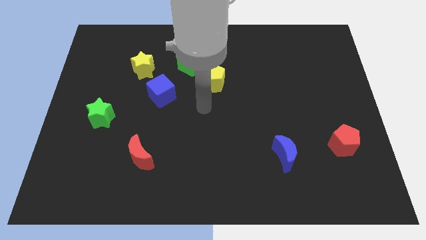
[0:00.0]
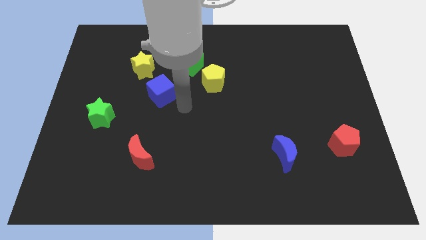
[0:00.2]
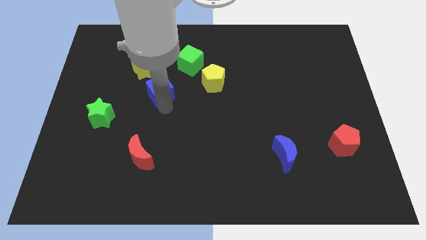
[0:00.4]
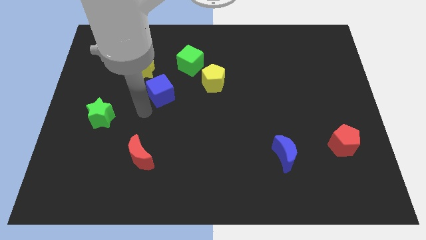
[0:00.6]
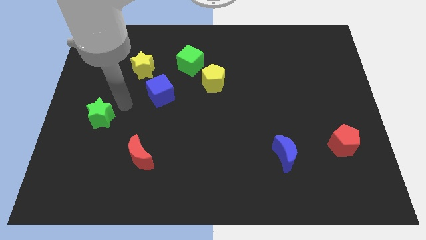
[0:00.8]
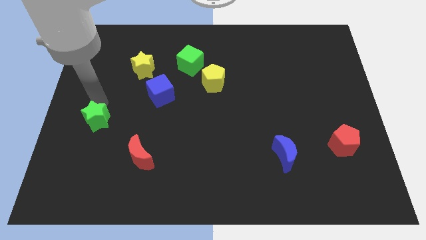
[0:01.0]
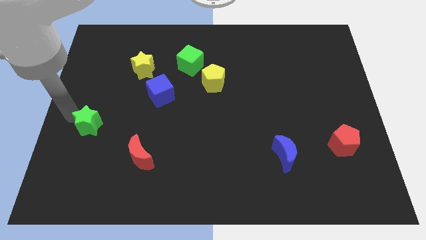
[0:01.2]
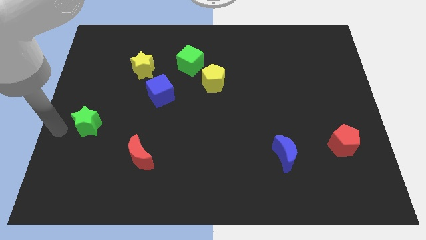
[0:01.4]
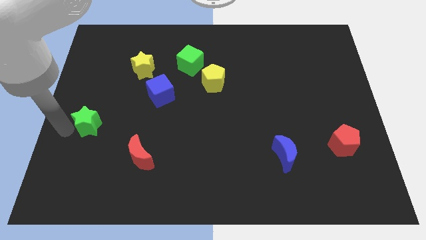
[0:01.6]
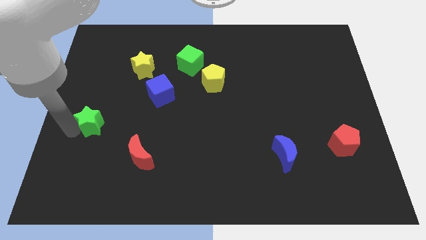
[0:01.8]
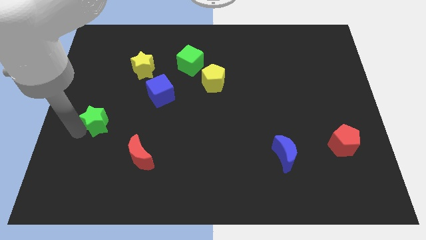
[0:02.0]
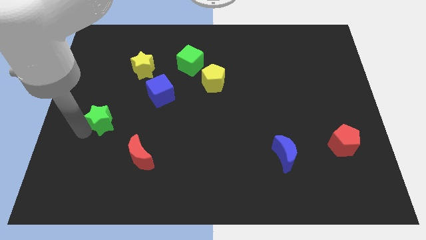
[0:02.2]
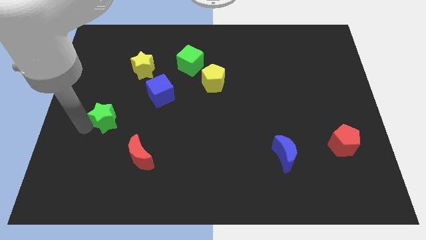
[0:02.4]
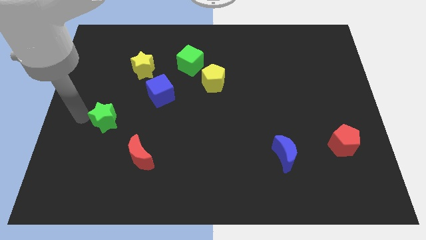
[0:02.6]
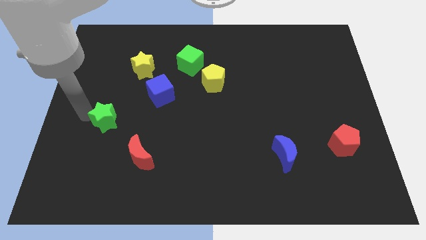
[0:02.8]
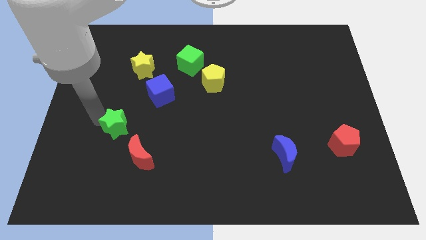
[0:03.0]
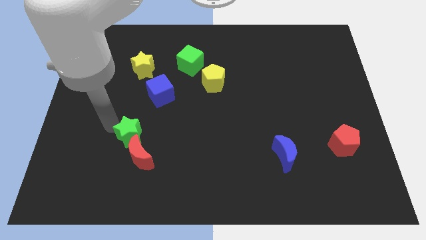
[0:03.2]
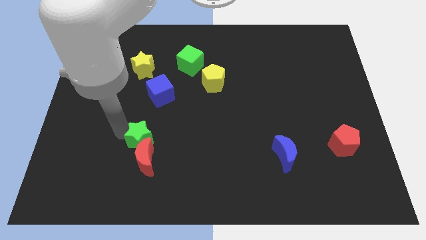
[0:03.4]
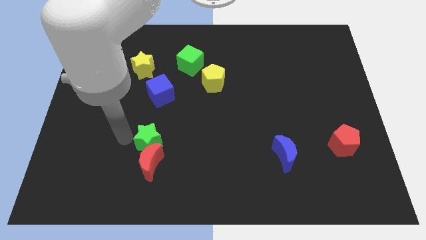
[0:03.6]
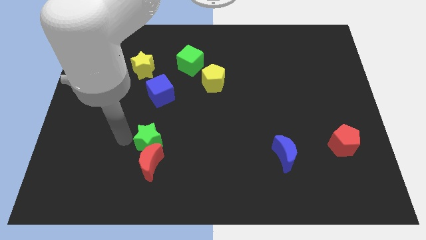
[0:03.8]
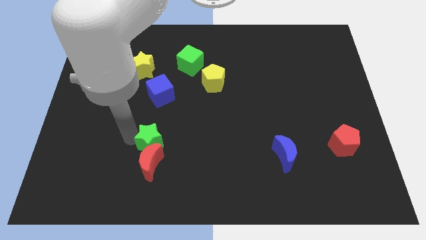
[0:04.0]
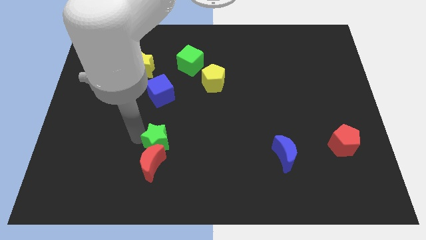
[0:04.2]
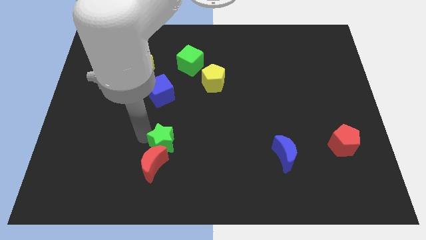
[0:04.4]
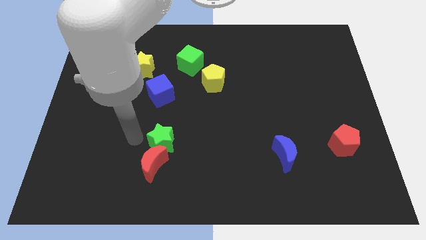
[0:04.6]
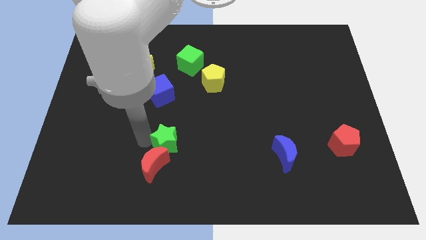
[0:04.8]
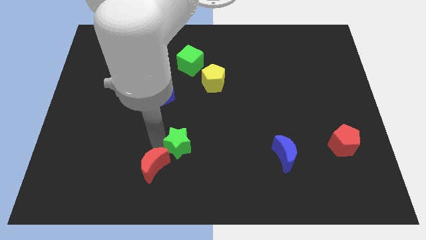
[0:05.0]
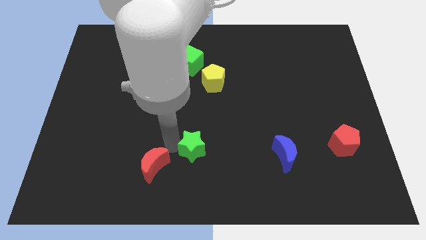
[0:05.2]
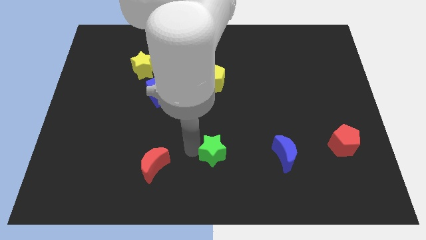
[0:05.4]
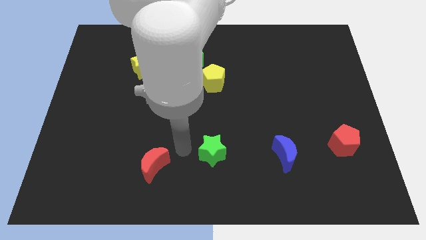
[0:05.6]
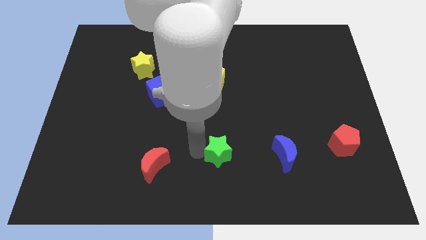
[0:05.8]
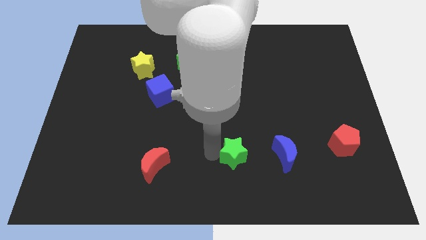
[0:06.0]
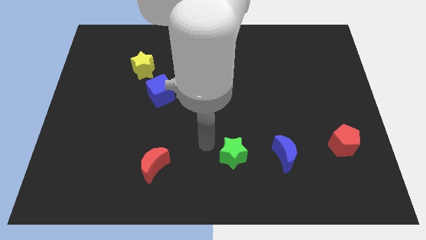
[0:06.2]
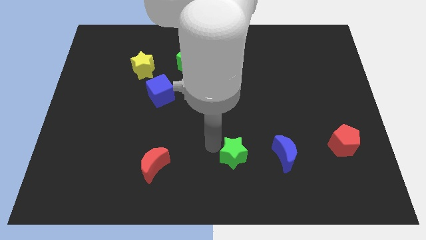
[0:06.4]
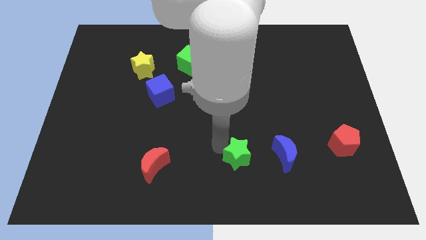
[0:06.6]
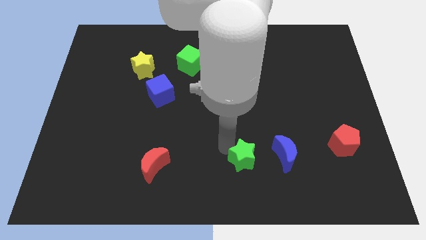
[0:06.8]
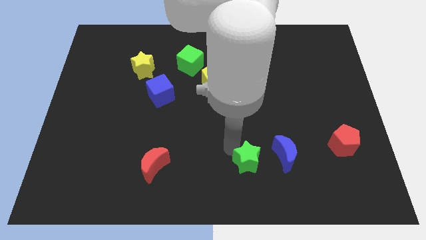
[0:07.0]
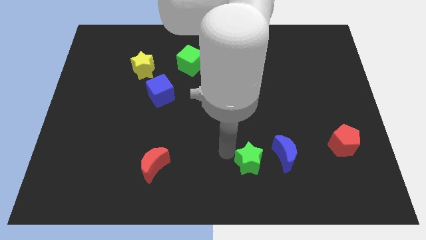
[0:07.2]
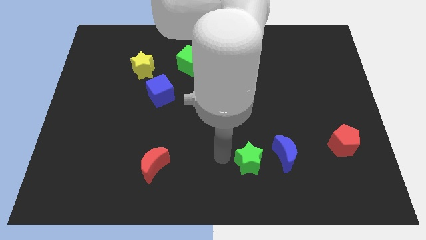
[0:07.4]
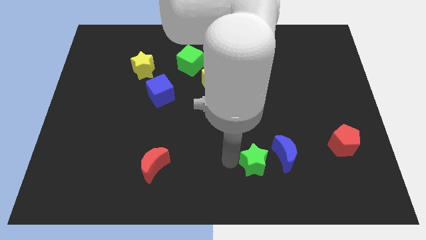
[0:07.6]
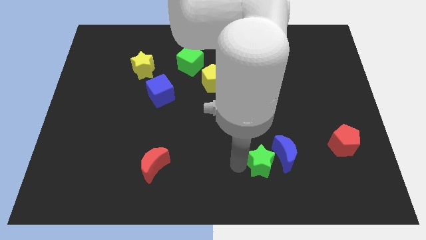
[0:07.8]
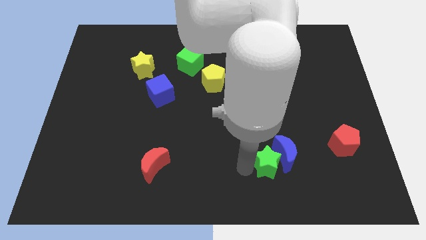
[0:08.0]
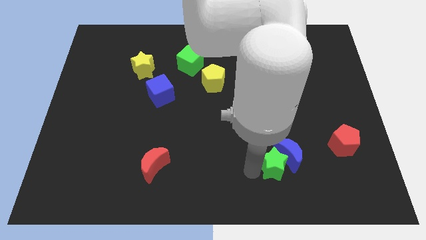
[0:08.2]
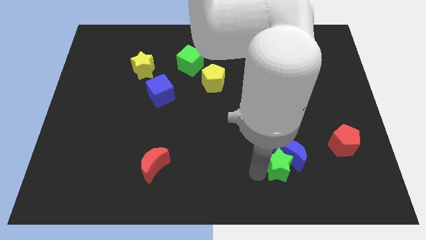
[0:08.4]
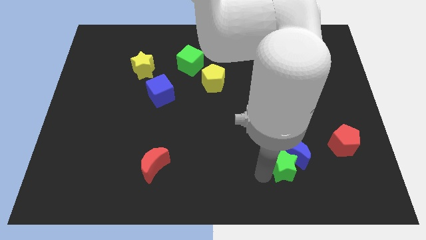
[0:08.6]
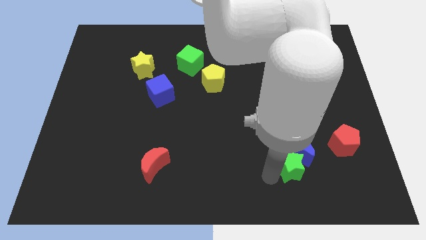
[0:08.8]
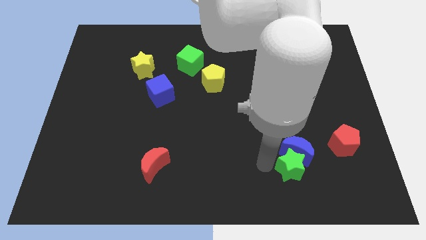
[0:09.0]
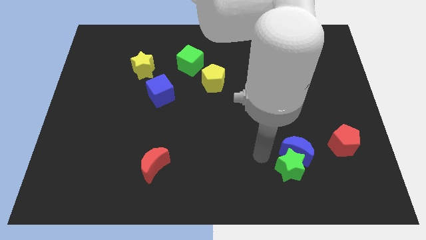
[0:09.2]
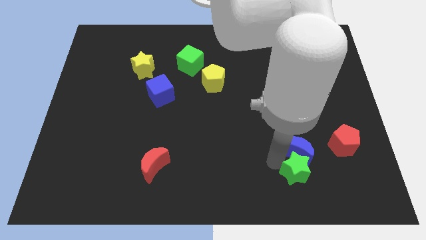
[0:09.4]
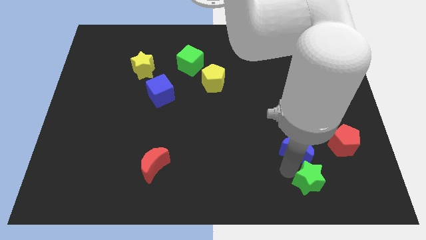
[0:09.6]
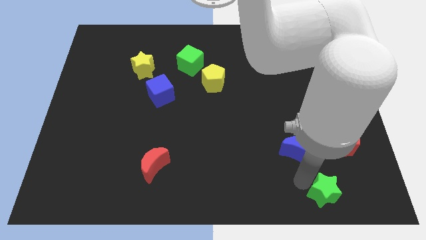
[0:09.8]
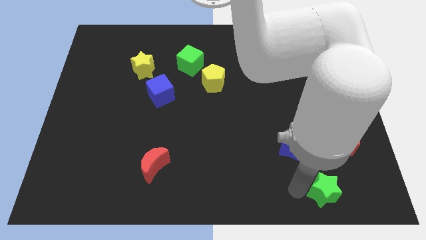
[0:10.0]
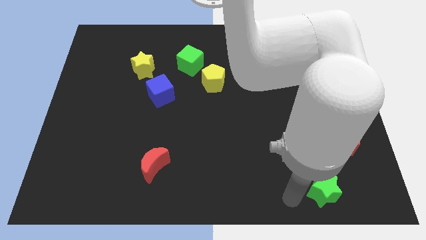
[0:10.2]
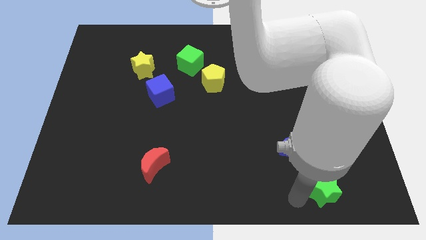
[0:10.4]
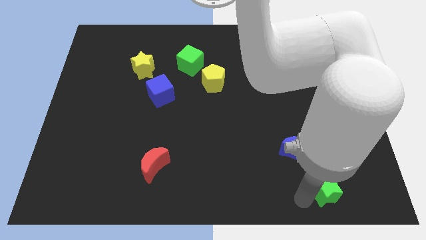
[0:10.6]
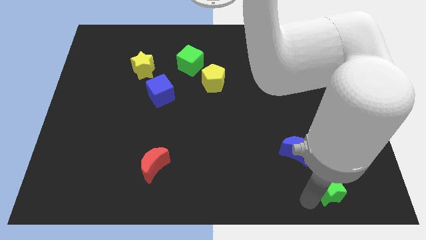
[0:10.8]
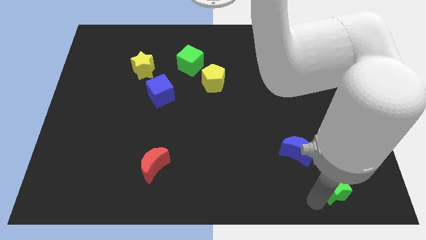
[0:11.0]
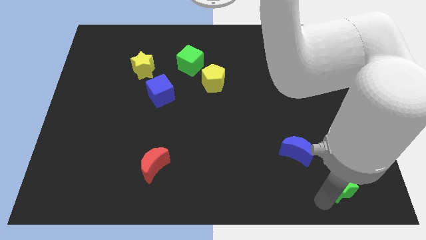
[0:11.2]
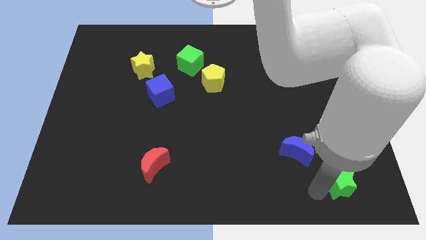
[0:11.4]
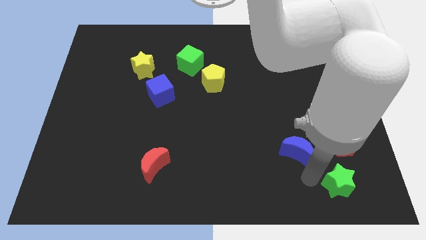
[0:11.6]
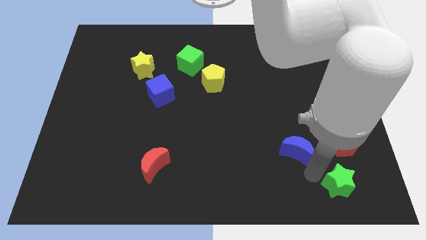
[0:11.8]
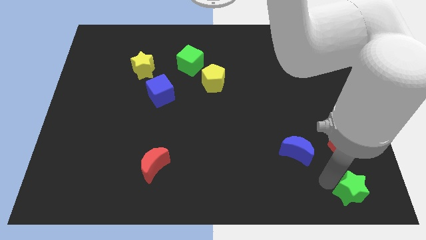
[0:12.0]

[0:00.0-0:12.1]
slide the green star to the bottom right
